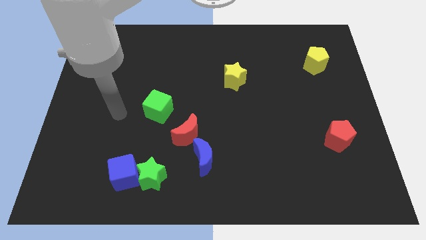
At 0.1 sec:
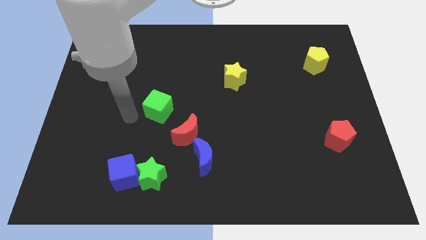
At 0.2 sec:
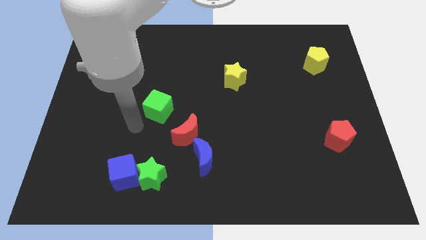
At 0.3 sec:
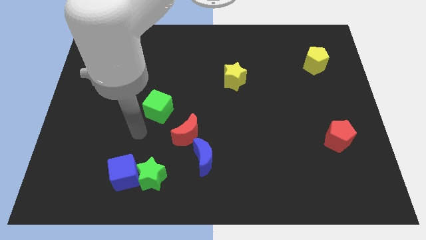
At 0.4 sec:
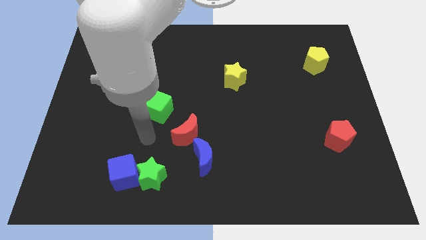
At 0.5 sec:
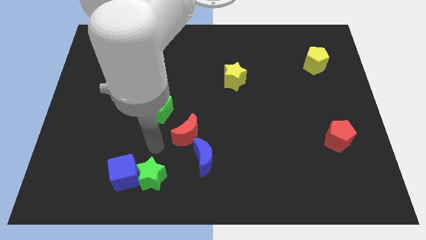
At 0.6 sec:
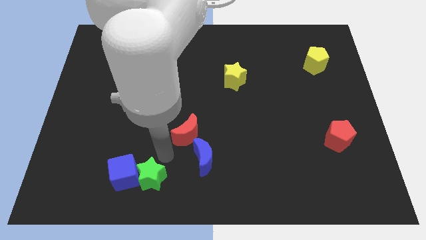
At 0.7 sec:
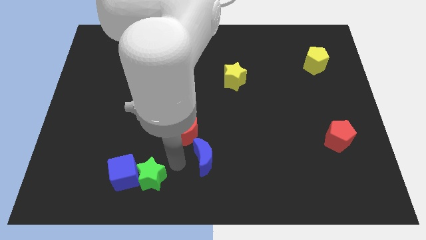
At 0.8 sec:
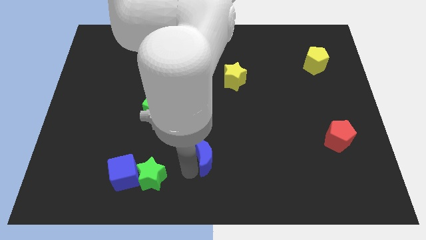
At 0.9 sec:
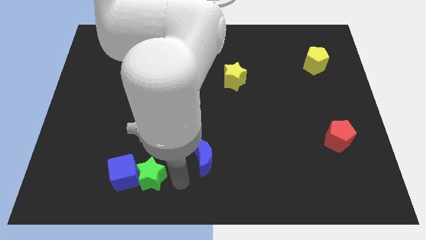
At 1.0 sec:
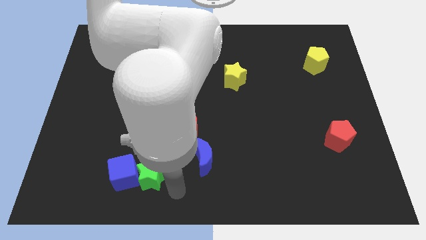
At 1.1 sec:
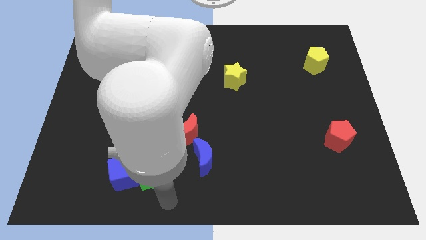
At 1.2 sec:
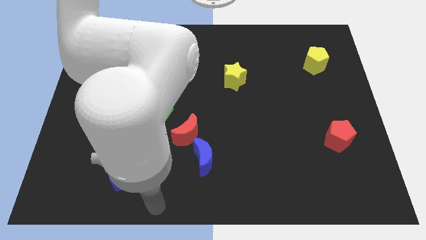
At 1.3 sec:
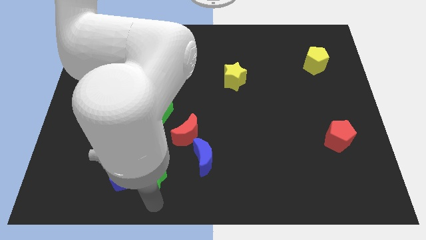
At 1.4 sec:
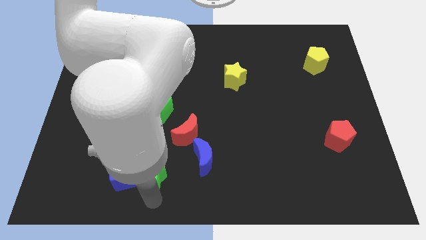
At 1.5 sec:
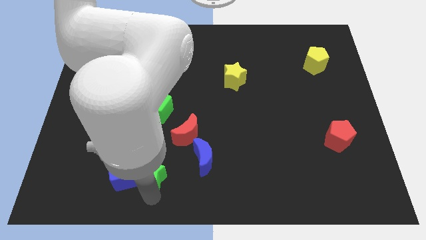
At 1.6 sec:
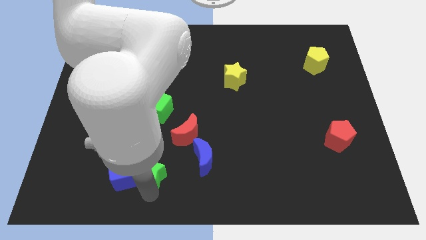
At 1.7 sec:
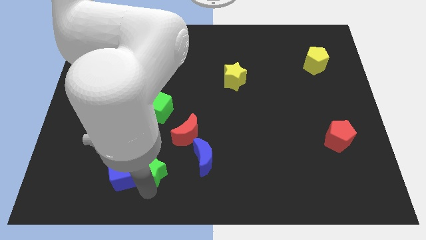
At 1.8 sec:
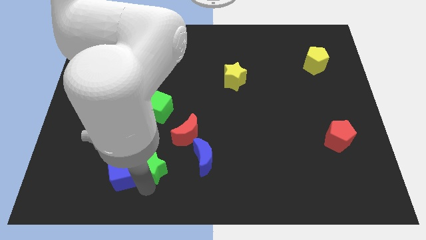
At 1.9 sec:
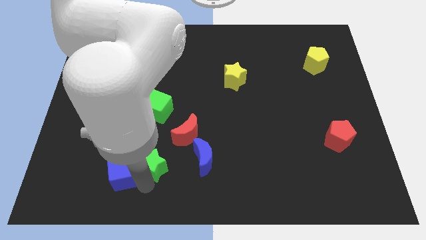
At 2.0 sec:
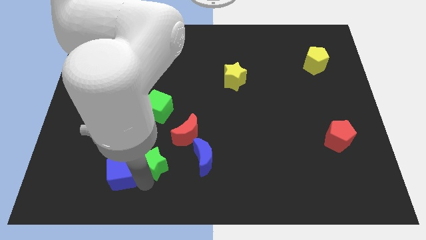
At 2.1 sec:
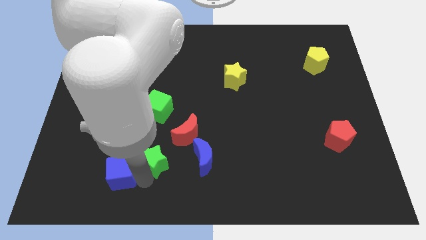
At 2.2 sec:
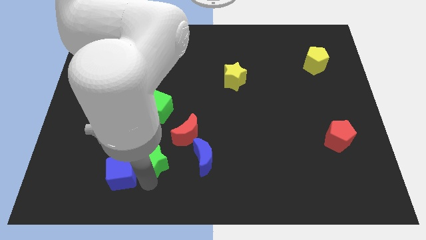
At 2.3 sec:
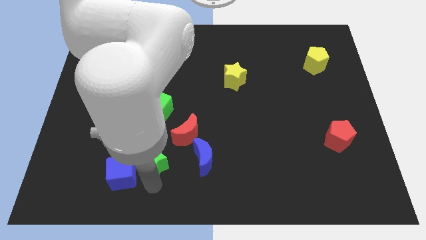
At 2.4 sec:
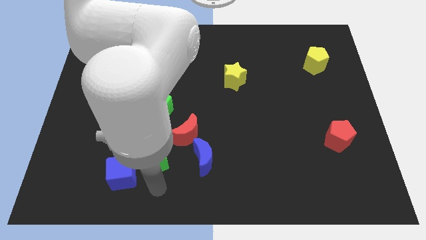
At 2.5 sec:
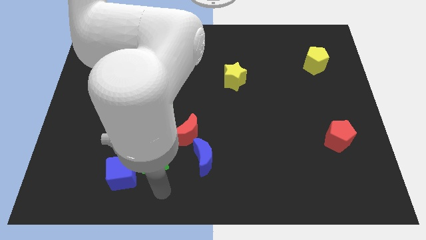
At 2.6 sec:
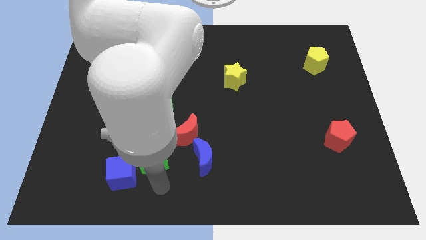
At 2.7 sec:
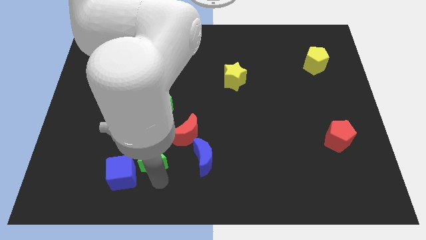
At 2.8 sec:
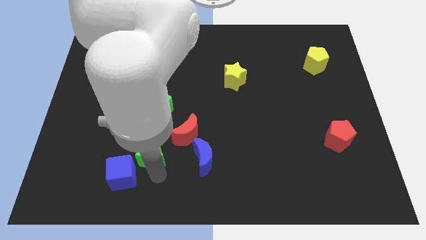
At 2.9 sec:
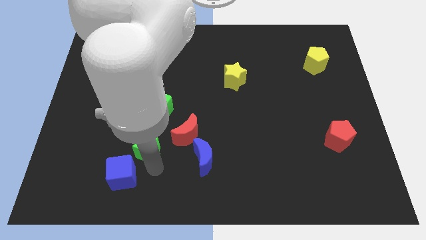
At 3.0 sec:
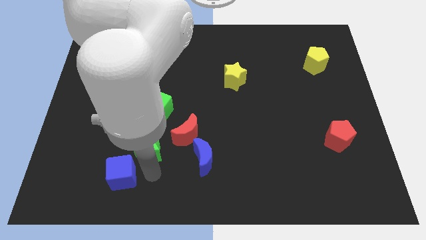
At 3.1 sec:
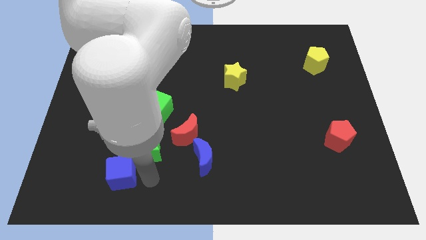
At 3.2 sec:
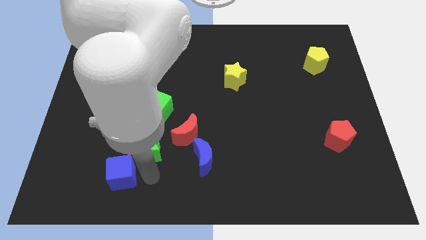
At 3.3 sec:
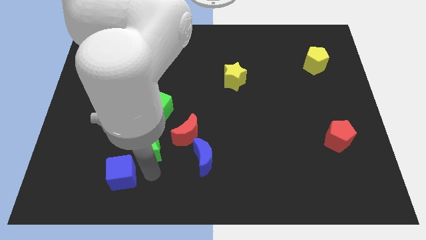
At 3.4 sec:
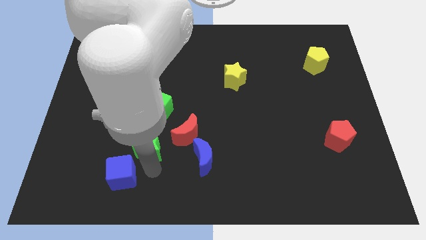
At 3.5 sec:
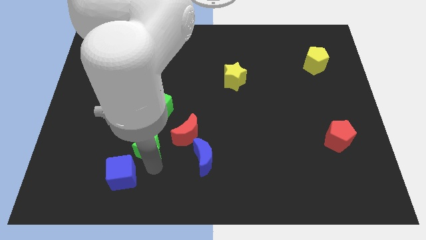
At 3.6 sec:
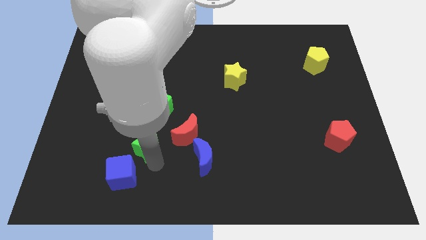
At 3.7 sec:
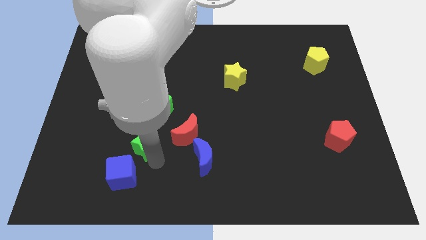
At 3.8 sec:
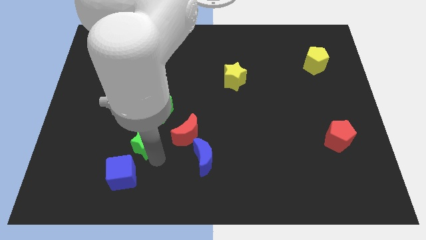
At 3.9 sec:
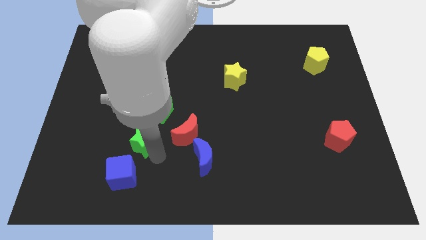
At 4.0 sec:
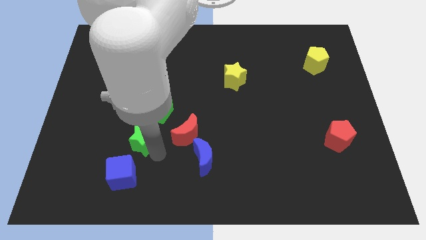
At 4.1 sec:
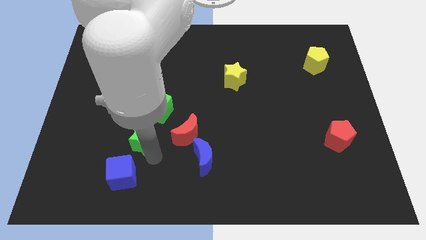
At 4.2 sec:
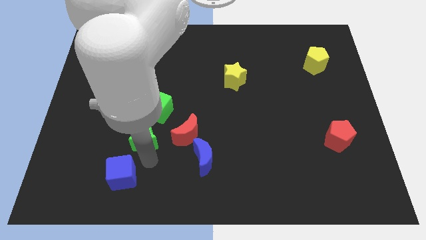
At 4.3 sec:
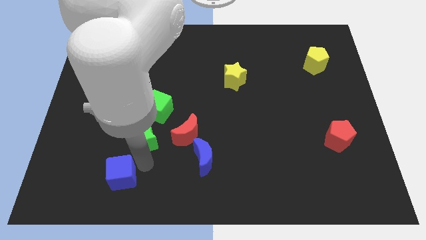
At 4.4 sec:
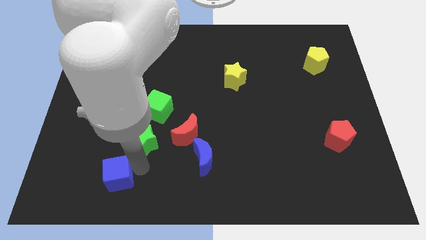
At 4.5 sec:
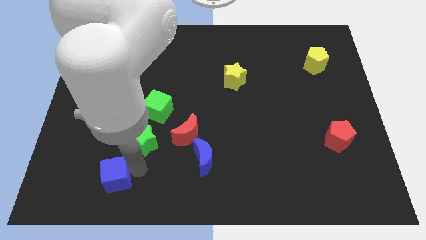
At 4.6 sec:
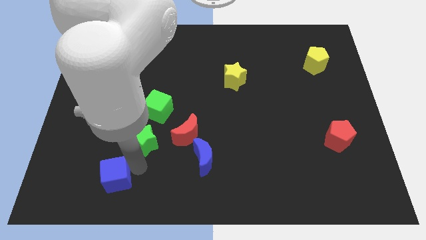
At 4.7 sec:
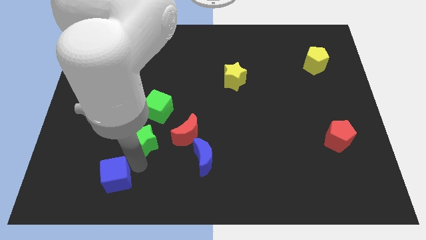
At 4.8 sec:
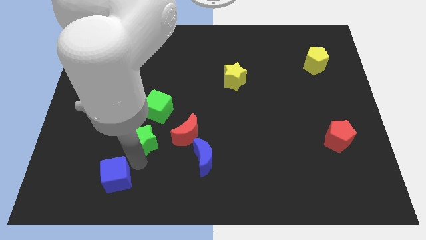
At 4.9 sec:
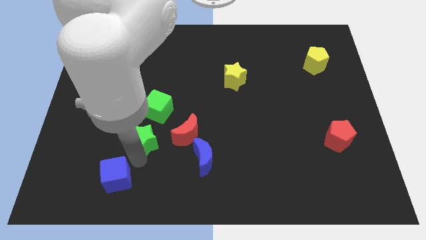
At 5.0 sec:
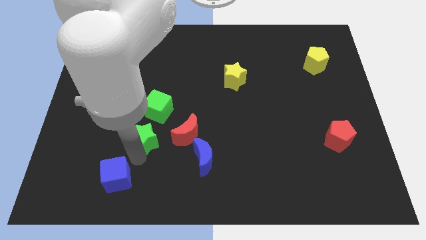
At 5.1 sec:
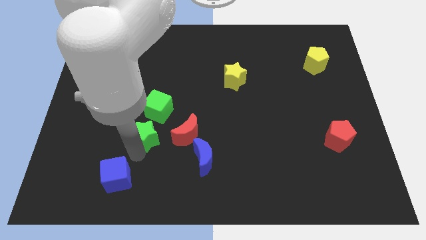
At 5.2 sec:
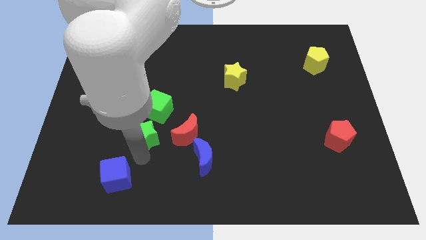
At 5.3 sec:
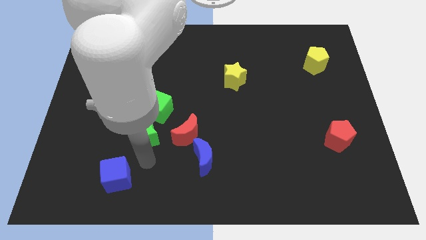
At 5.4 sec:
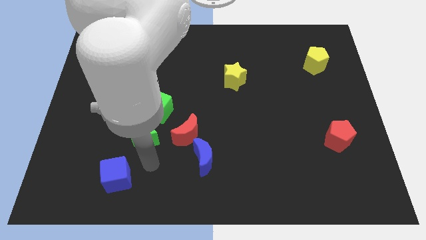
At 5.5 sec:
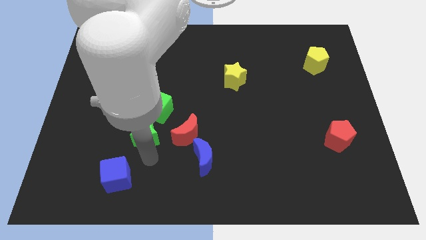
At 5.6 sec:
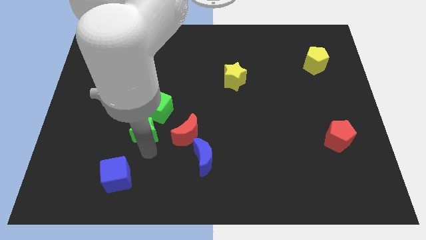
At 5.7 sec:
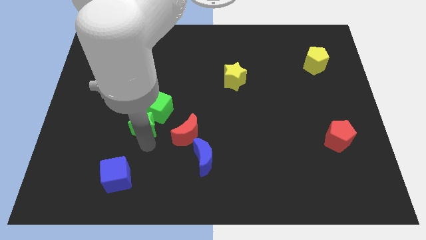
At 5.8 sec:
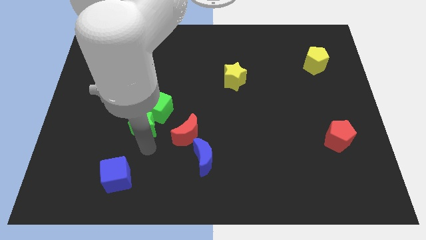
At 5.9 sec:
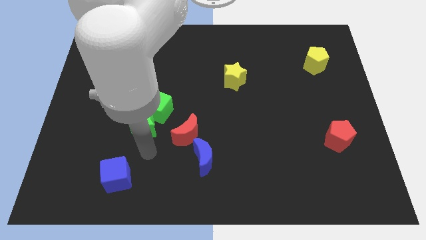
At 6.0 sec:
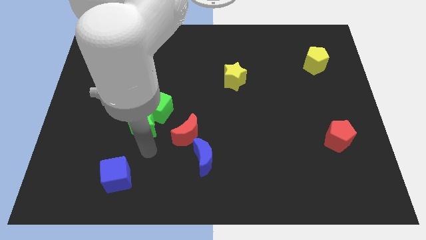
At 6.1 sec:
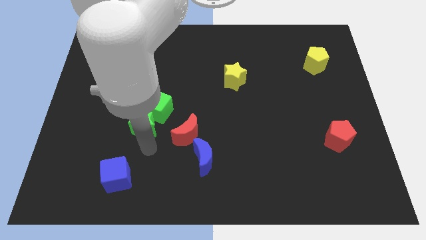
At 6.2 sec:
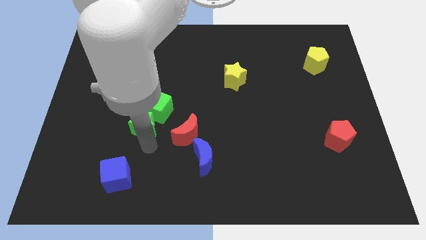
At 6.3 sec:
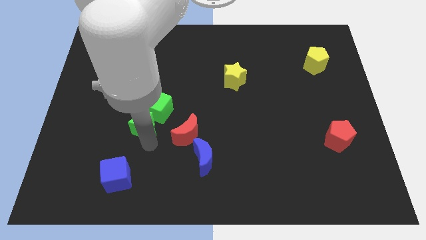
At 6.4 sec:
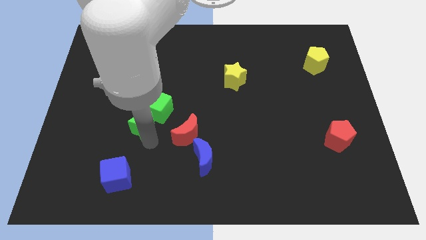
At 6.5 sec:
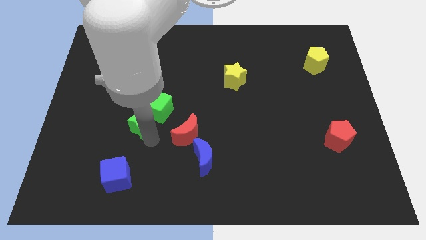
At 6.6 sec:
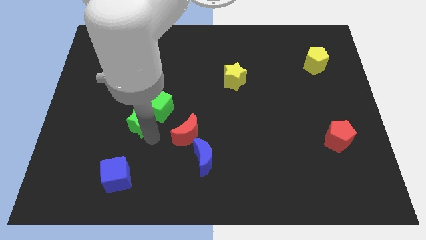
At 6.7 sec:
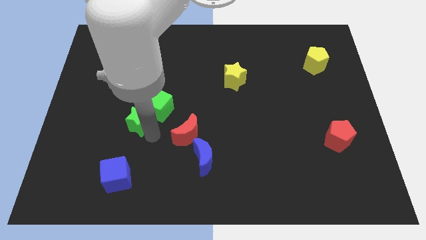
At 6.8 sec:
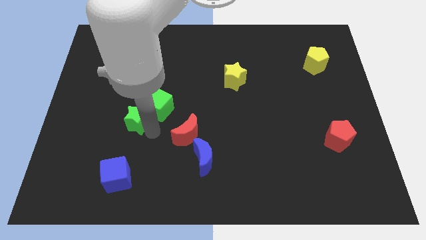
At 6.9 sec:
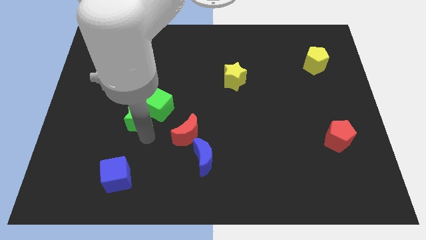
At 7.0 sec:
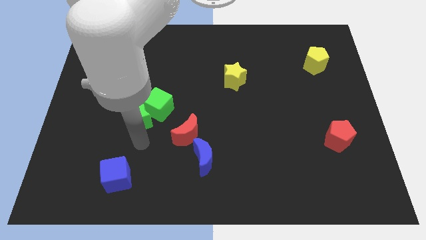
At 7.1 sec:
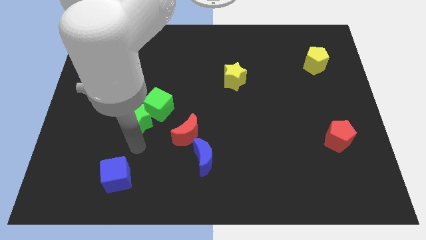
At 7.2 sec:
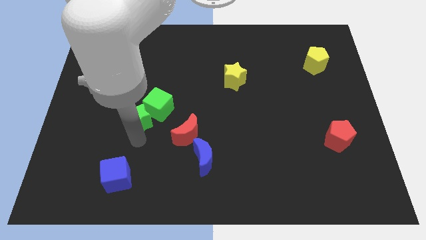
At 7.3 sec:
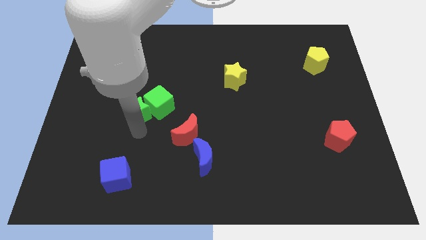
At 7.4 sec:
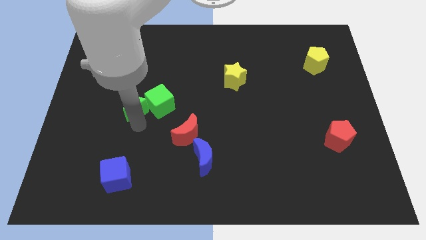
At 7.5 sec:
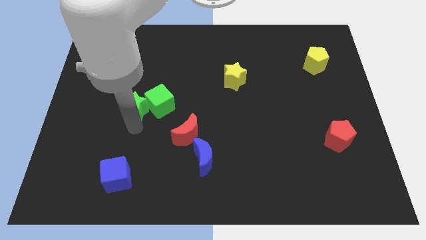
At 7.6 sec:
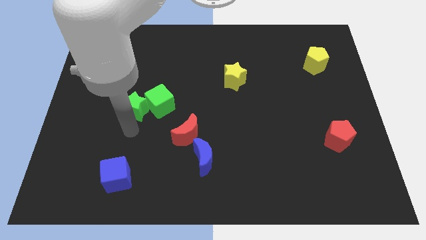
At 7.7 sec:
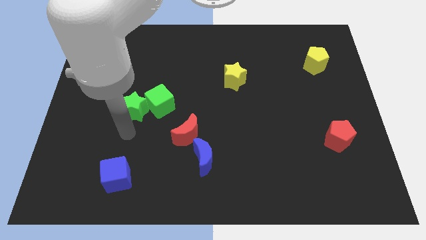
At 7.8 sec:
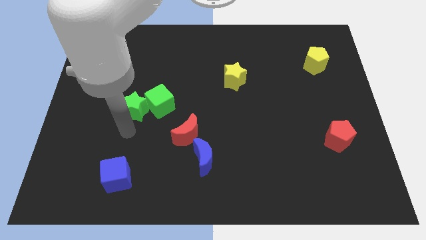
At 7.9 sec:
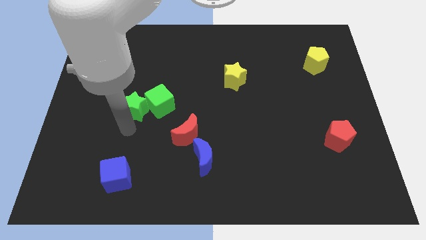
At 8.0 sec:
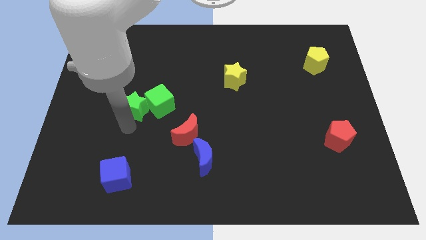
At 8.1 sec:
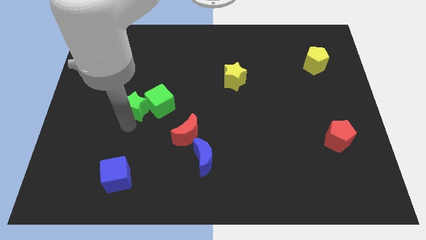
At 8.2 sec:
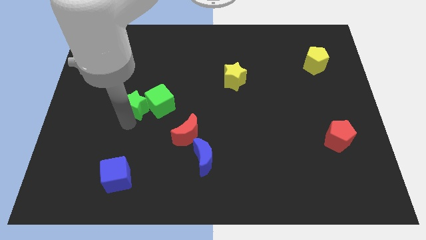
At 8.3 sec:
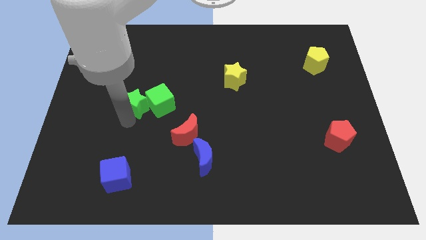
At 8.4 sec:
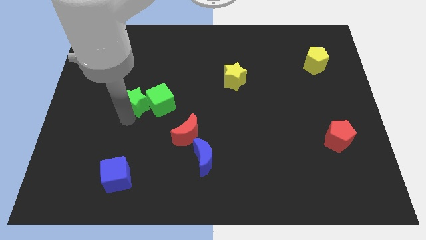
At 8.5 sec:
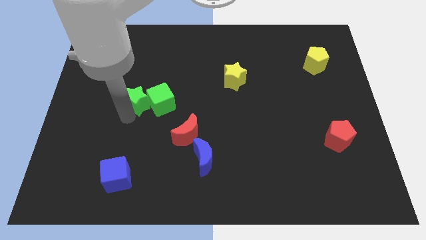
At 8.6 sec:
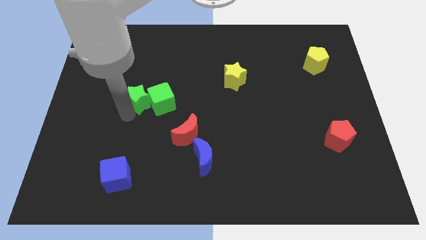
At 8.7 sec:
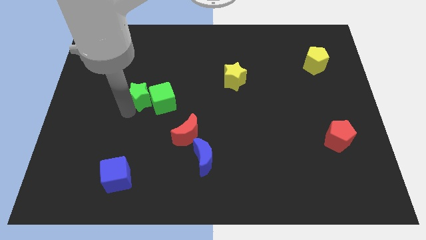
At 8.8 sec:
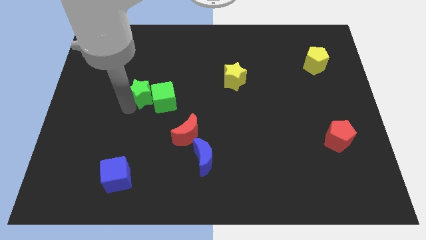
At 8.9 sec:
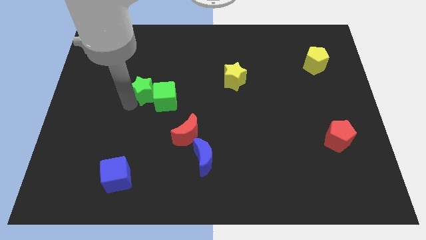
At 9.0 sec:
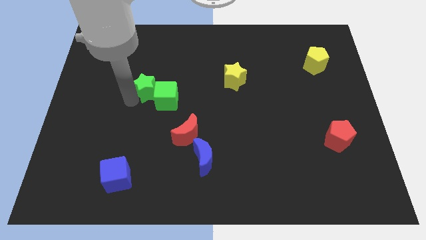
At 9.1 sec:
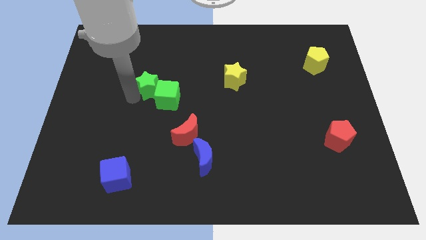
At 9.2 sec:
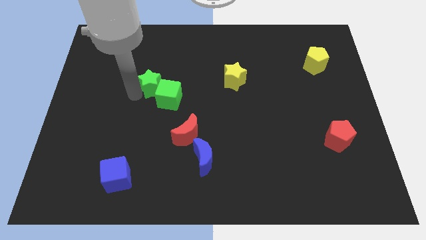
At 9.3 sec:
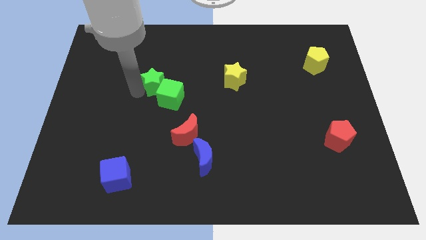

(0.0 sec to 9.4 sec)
move the green star to the top of the green cube
